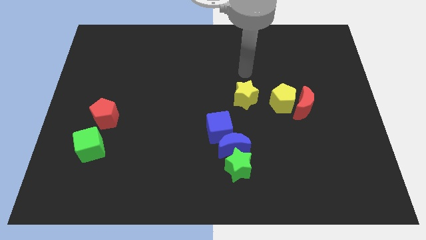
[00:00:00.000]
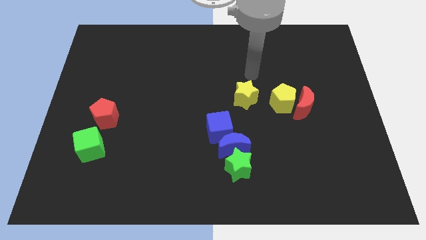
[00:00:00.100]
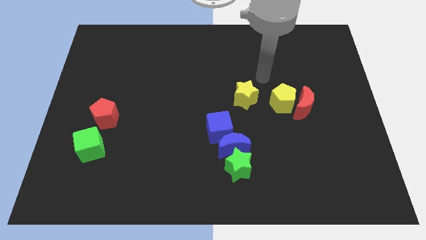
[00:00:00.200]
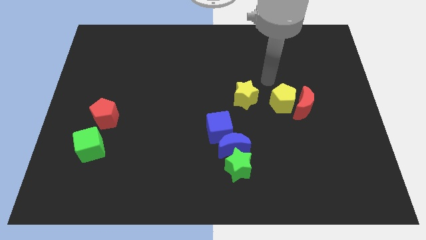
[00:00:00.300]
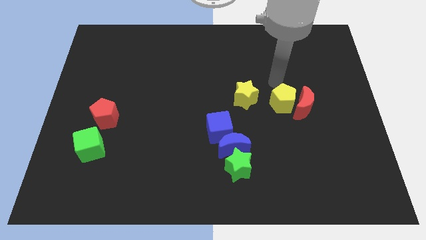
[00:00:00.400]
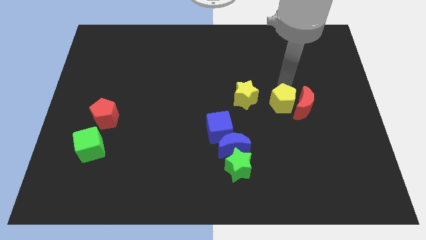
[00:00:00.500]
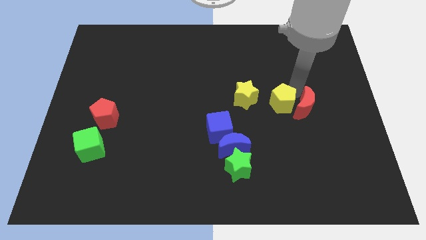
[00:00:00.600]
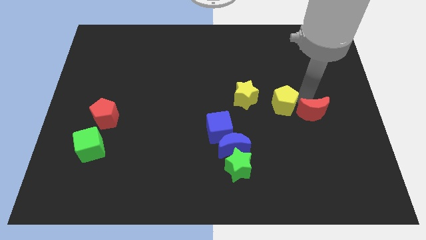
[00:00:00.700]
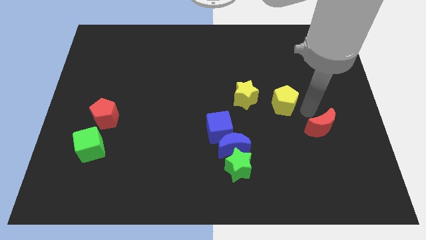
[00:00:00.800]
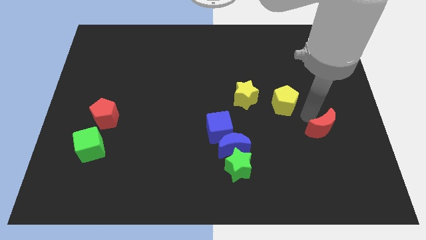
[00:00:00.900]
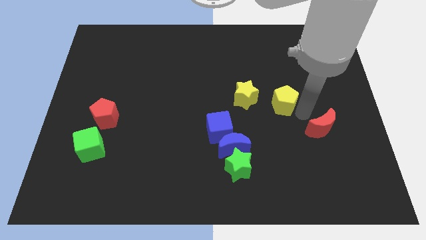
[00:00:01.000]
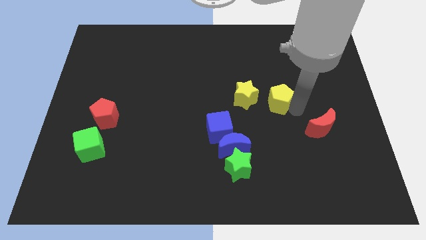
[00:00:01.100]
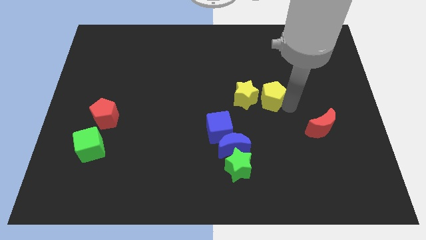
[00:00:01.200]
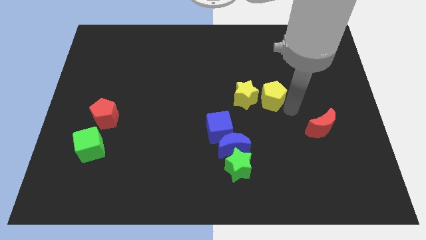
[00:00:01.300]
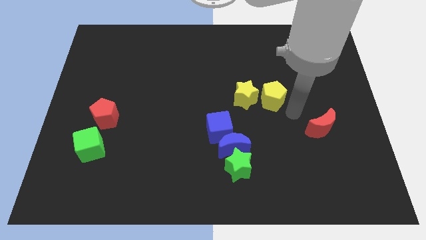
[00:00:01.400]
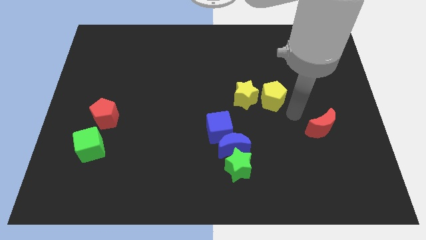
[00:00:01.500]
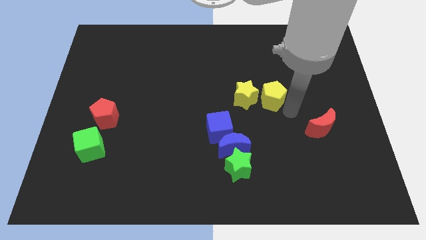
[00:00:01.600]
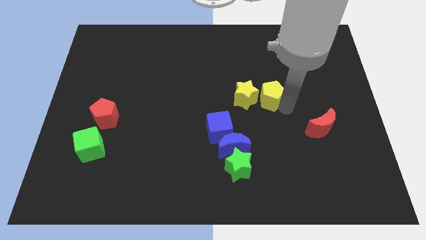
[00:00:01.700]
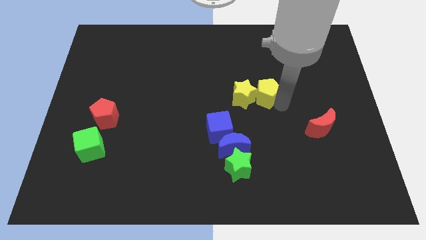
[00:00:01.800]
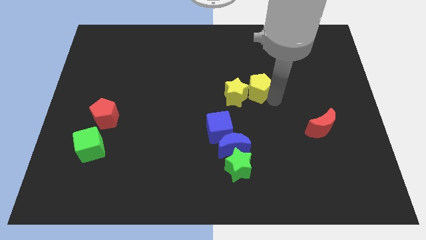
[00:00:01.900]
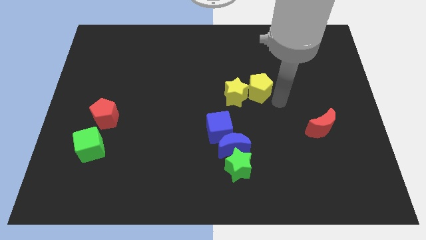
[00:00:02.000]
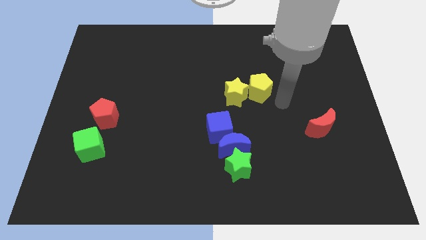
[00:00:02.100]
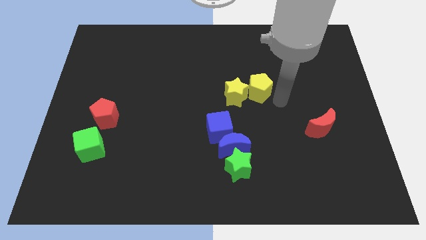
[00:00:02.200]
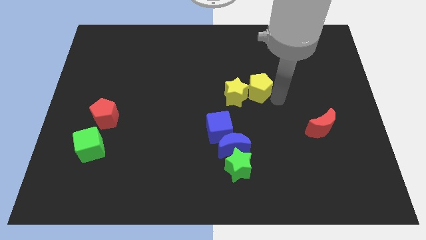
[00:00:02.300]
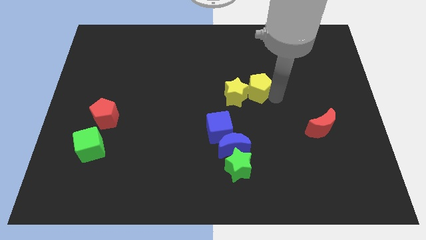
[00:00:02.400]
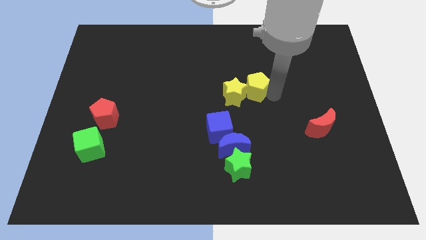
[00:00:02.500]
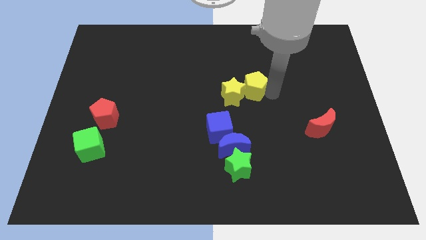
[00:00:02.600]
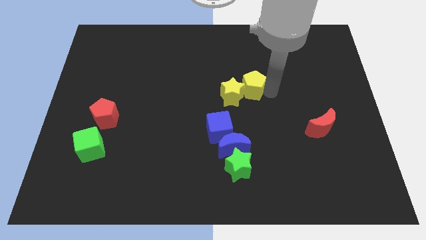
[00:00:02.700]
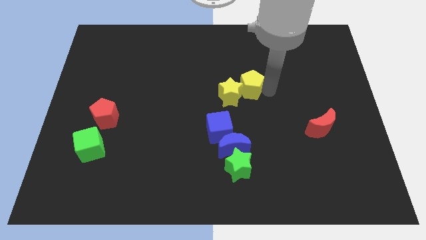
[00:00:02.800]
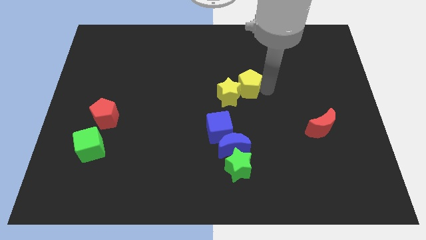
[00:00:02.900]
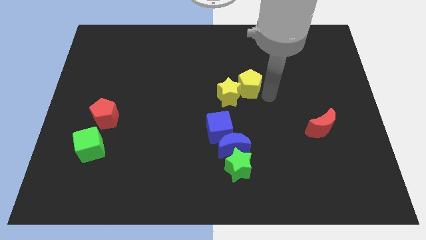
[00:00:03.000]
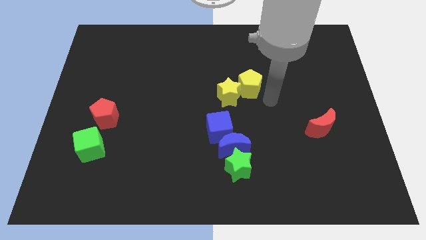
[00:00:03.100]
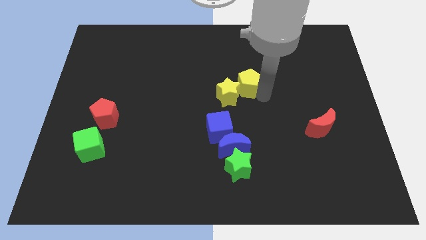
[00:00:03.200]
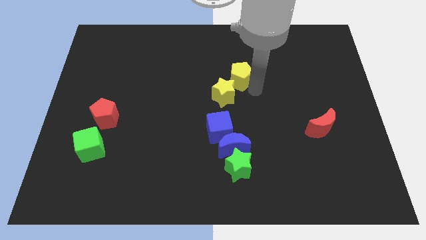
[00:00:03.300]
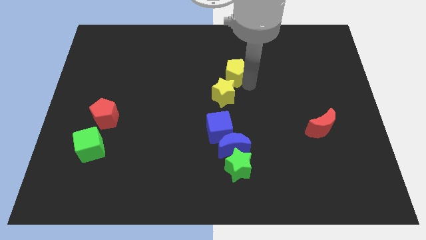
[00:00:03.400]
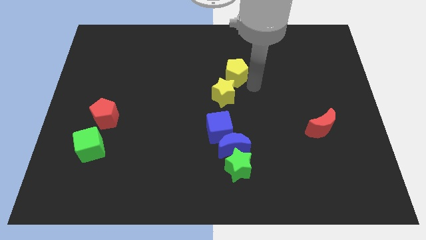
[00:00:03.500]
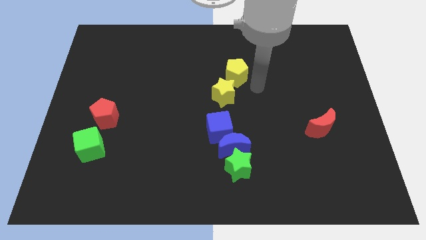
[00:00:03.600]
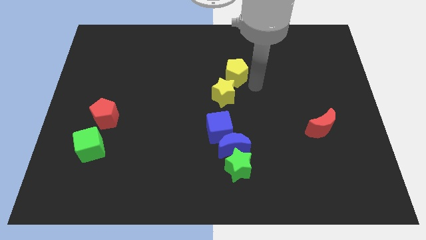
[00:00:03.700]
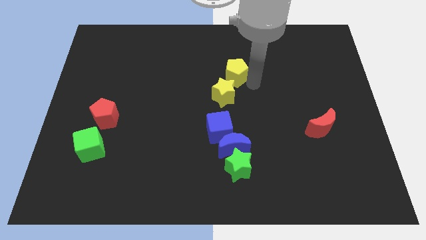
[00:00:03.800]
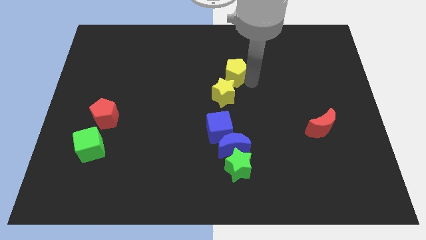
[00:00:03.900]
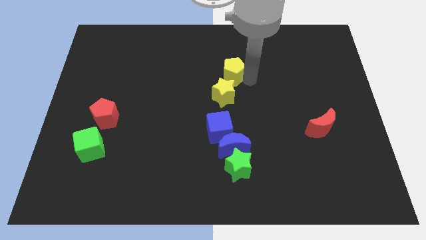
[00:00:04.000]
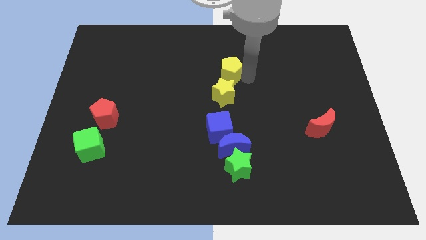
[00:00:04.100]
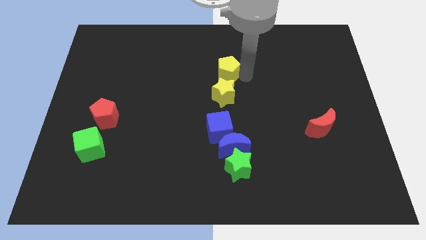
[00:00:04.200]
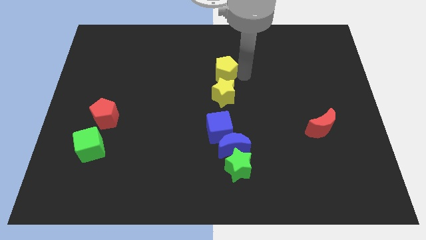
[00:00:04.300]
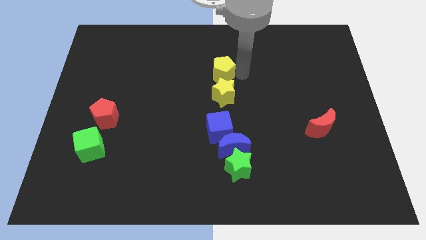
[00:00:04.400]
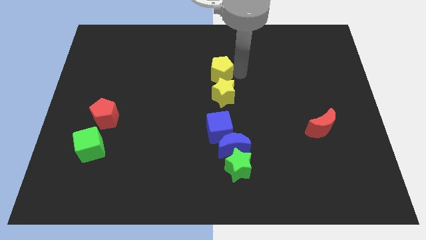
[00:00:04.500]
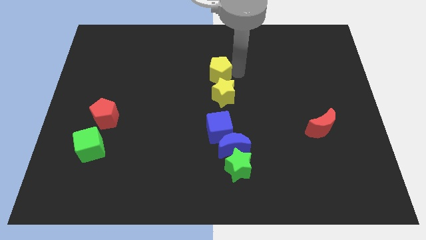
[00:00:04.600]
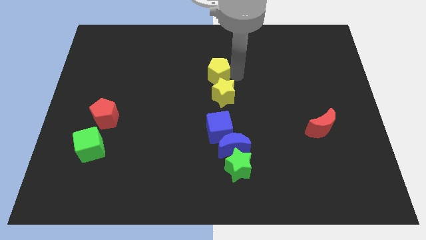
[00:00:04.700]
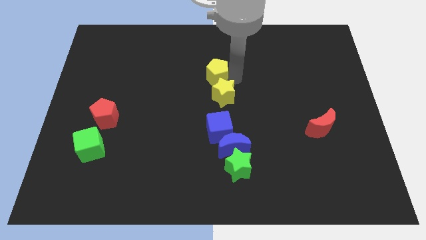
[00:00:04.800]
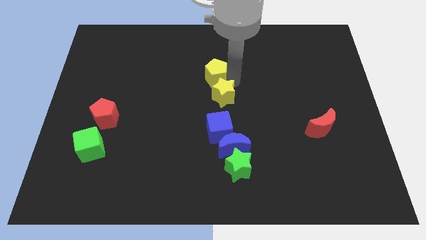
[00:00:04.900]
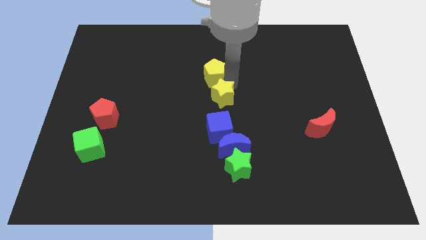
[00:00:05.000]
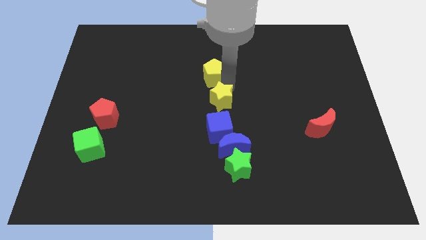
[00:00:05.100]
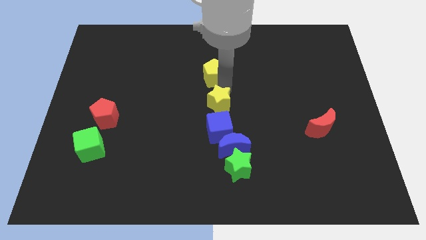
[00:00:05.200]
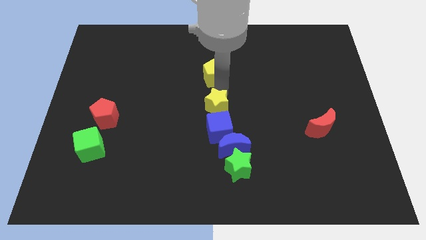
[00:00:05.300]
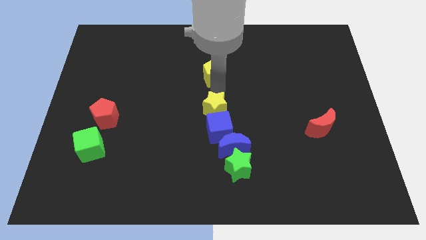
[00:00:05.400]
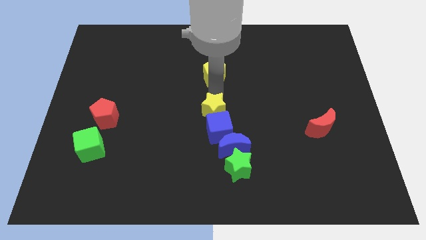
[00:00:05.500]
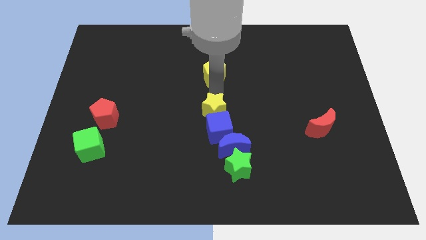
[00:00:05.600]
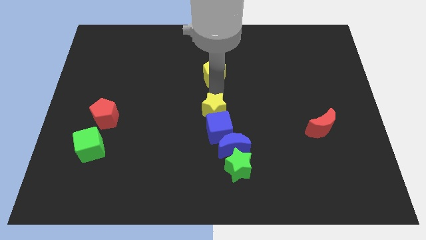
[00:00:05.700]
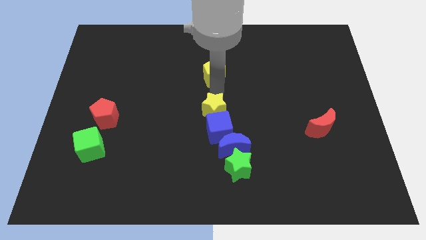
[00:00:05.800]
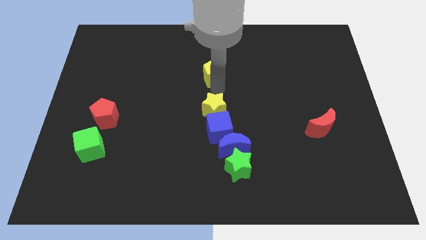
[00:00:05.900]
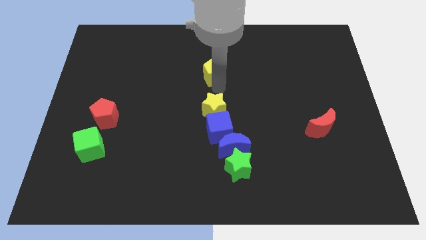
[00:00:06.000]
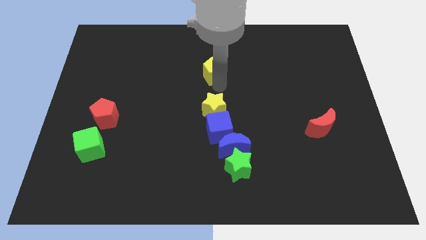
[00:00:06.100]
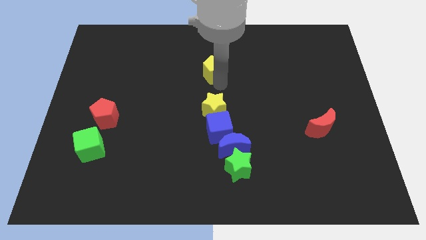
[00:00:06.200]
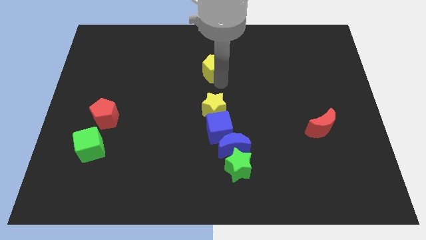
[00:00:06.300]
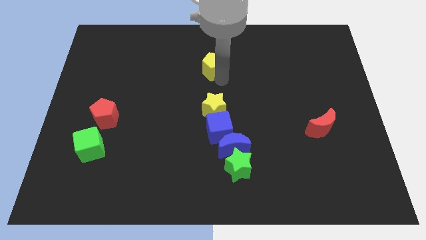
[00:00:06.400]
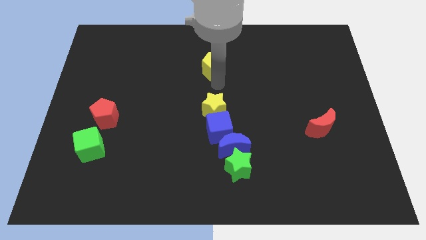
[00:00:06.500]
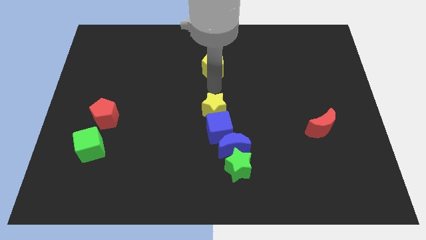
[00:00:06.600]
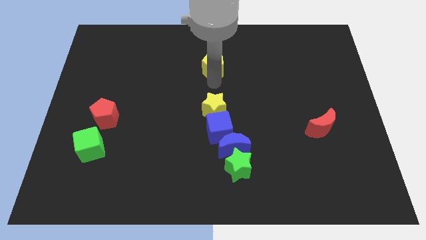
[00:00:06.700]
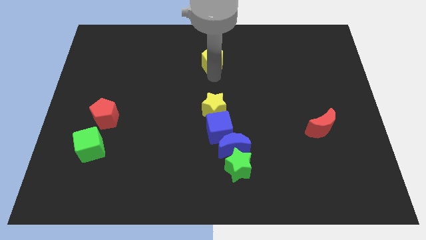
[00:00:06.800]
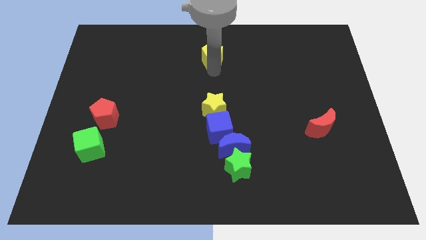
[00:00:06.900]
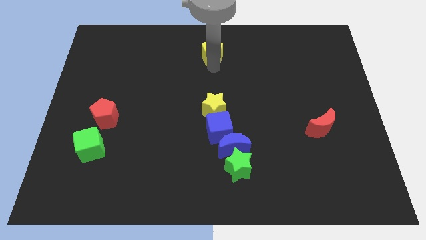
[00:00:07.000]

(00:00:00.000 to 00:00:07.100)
push the yellow pentagon to the towards your base
